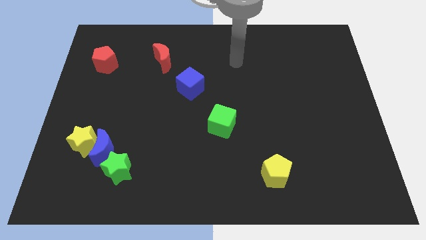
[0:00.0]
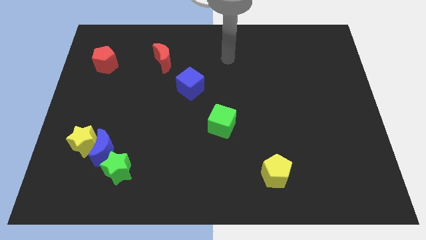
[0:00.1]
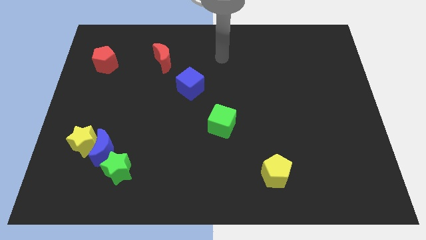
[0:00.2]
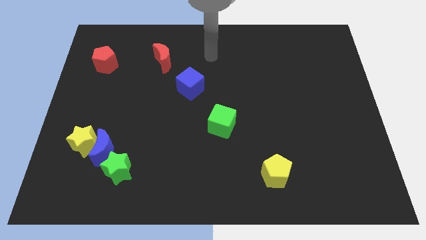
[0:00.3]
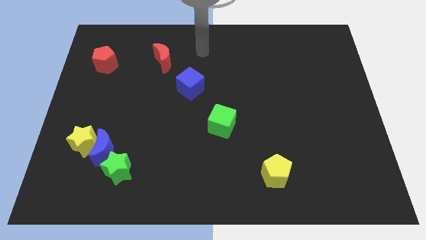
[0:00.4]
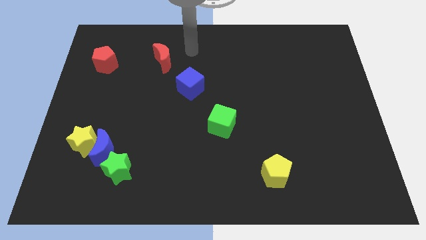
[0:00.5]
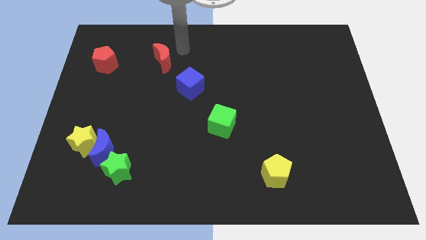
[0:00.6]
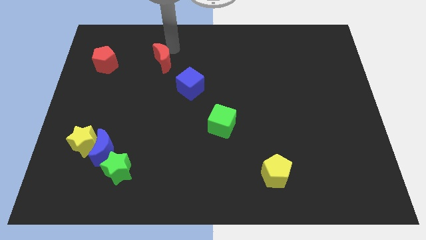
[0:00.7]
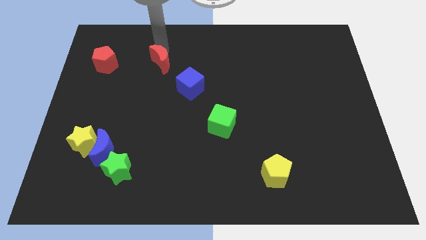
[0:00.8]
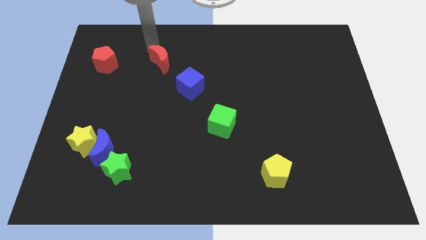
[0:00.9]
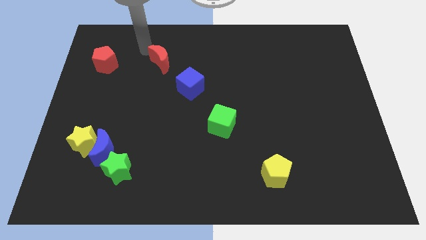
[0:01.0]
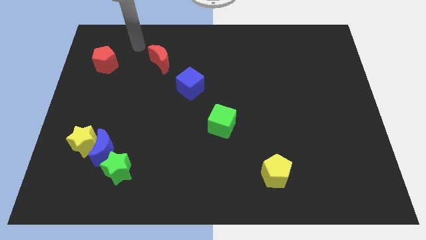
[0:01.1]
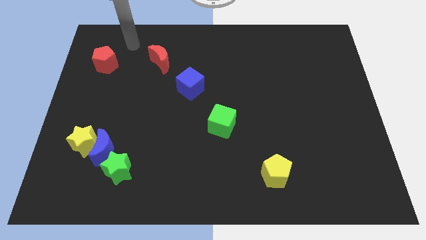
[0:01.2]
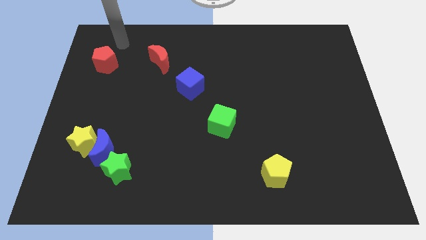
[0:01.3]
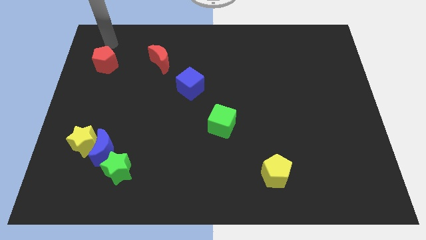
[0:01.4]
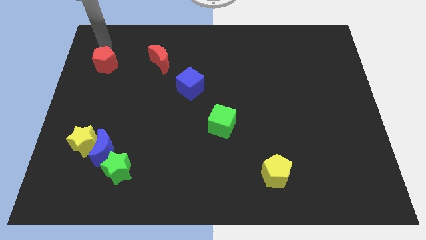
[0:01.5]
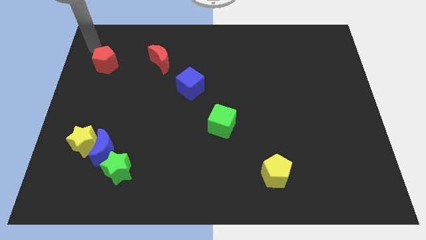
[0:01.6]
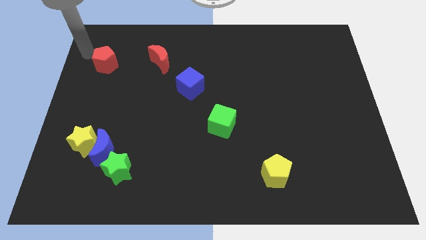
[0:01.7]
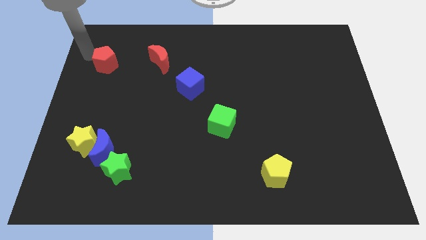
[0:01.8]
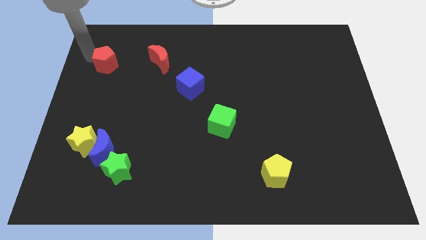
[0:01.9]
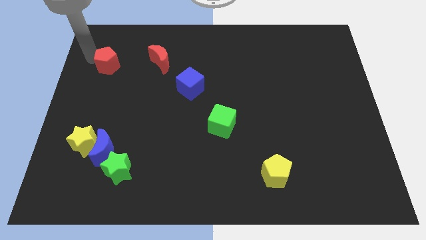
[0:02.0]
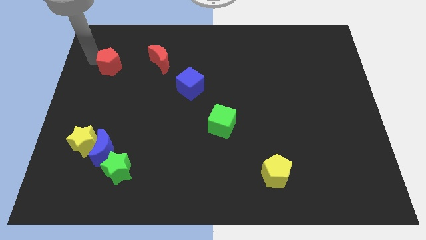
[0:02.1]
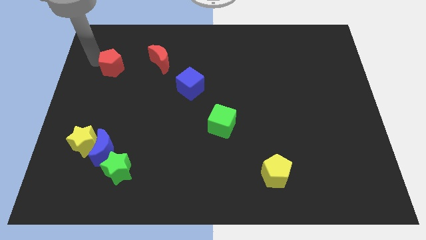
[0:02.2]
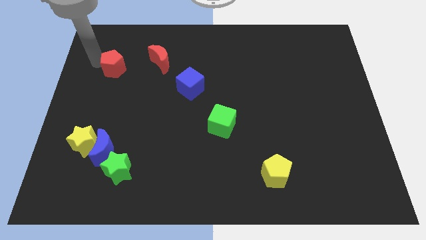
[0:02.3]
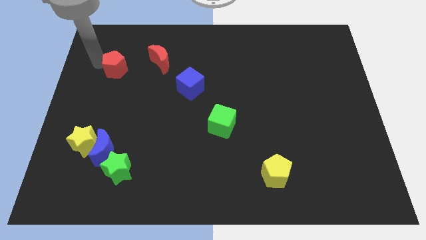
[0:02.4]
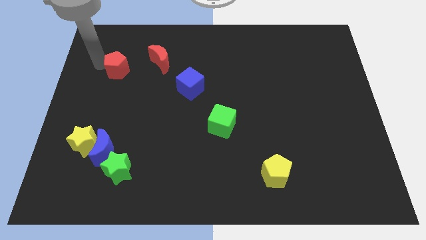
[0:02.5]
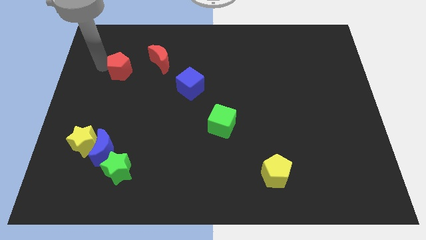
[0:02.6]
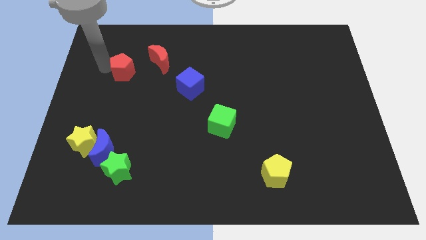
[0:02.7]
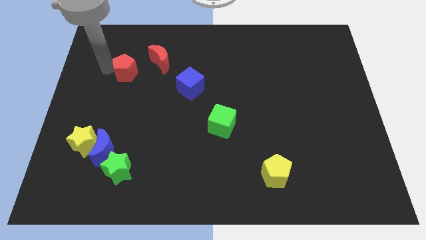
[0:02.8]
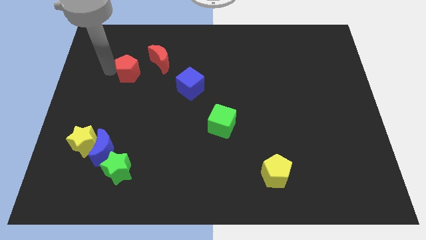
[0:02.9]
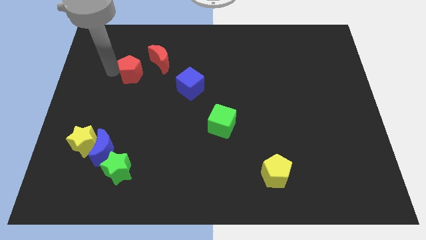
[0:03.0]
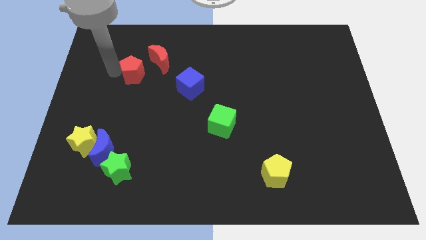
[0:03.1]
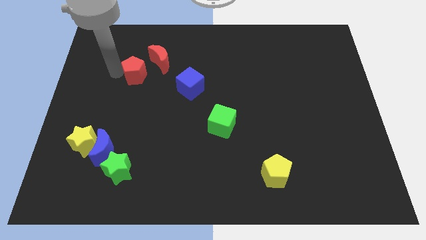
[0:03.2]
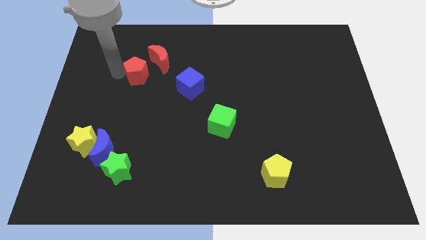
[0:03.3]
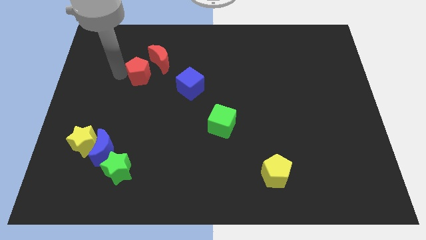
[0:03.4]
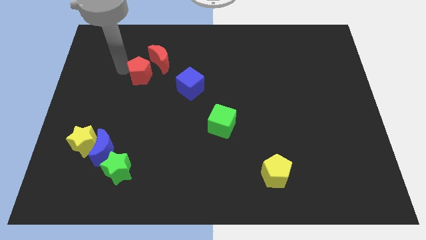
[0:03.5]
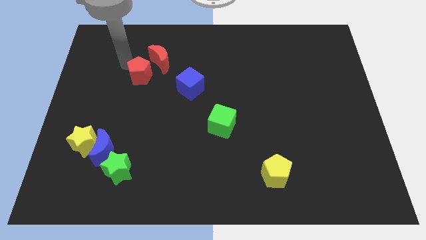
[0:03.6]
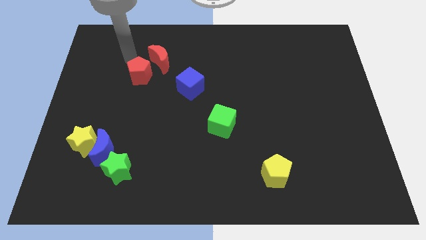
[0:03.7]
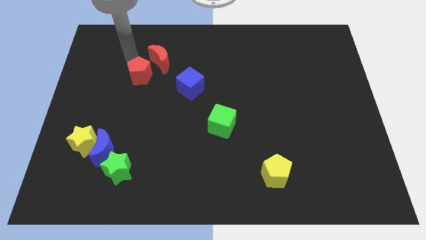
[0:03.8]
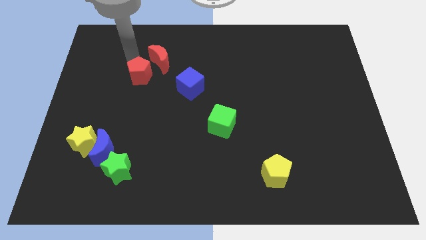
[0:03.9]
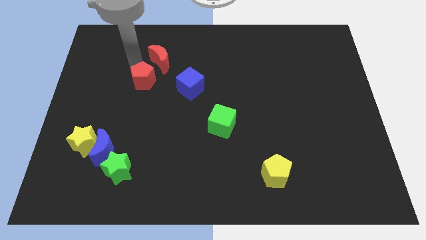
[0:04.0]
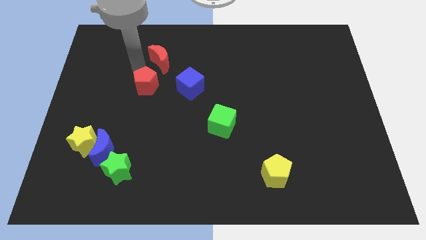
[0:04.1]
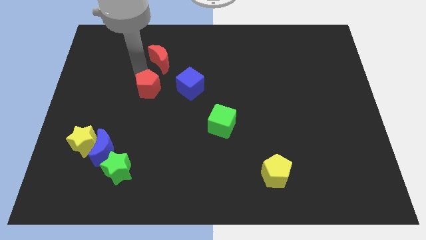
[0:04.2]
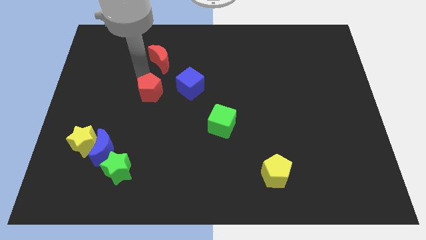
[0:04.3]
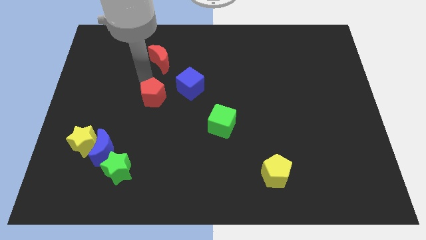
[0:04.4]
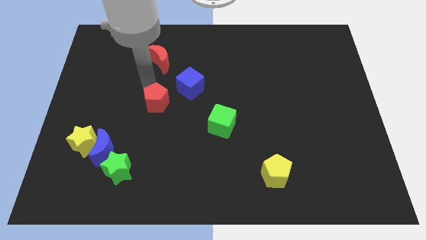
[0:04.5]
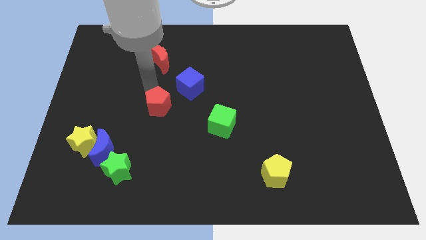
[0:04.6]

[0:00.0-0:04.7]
push the red pentagon diagonally downwards and to the right

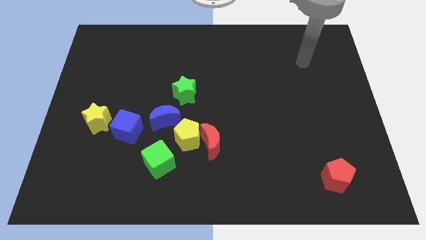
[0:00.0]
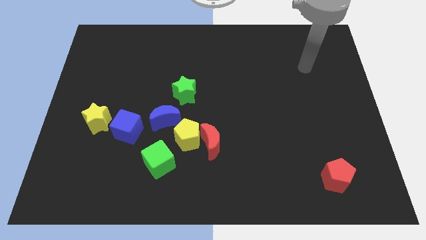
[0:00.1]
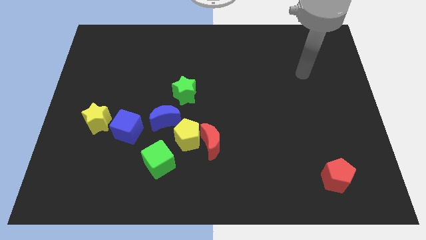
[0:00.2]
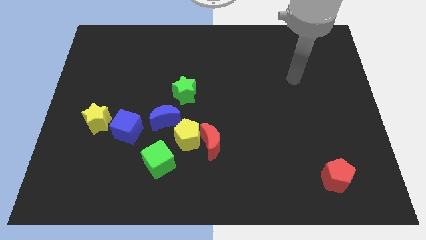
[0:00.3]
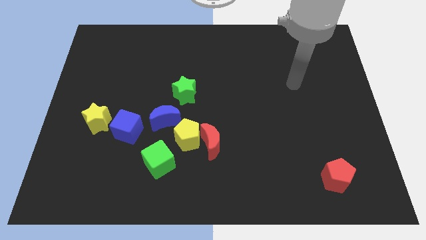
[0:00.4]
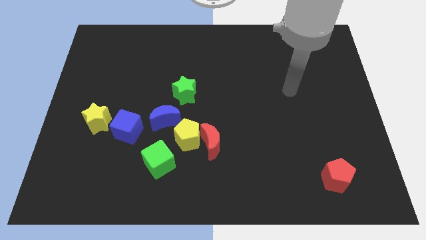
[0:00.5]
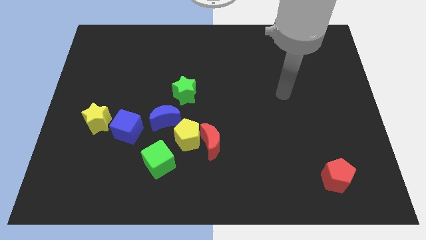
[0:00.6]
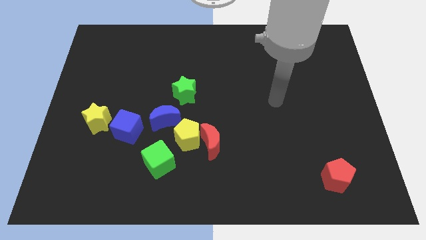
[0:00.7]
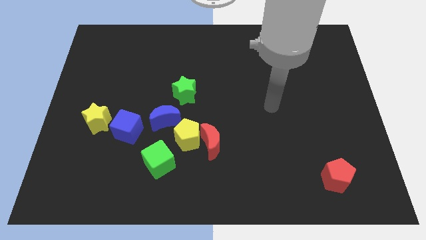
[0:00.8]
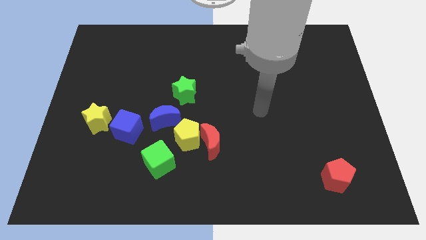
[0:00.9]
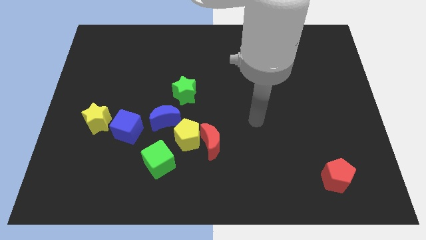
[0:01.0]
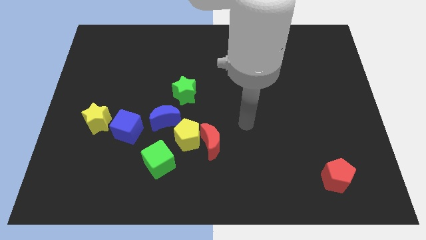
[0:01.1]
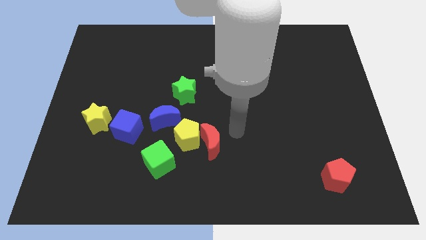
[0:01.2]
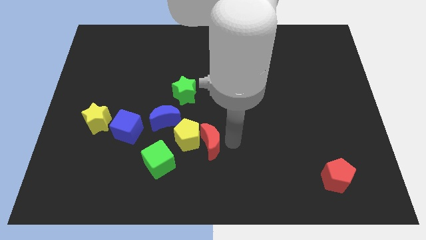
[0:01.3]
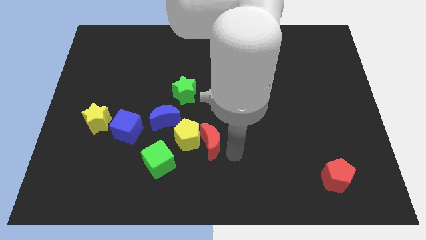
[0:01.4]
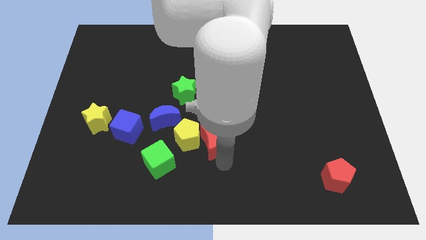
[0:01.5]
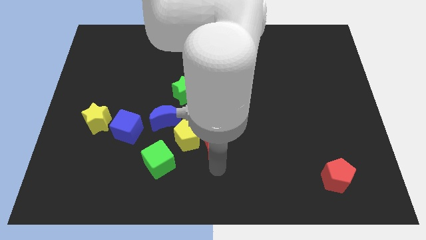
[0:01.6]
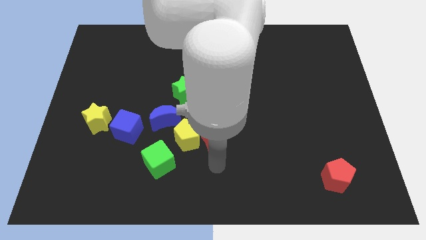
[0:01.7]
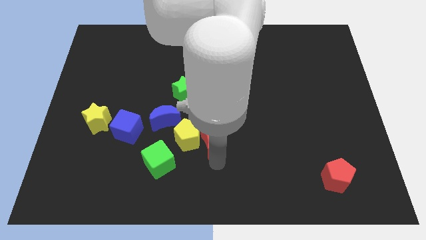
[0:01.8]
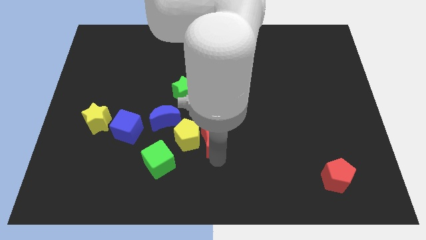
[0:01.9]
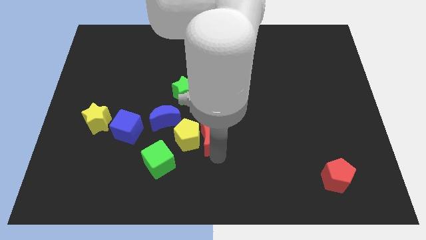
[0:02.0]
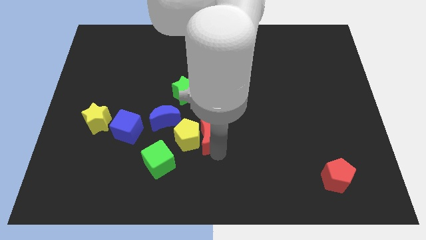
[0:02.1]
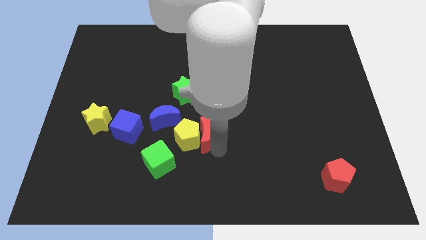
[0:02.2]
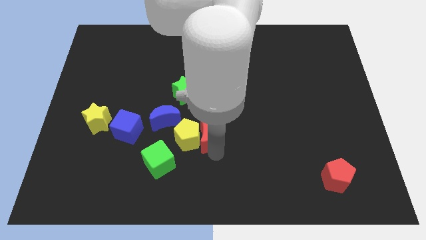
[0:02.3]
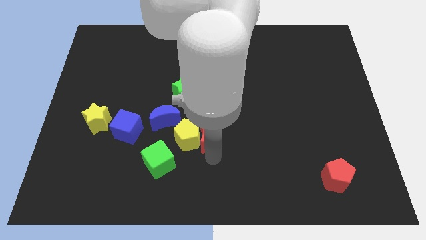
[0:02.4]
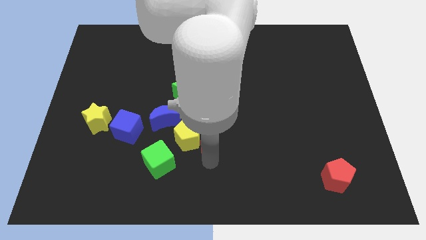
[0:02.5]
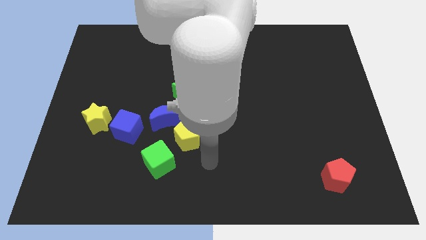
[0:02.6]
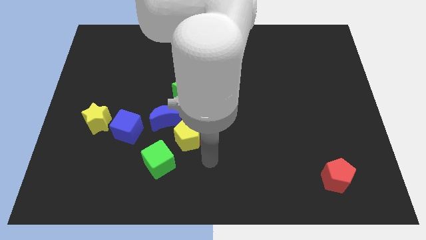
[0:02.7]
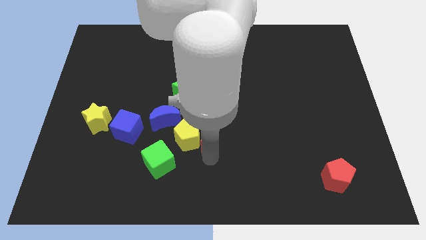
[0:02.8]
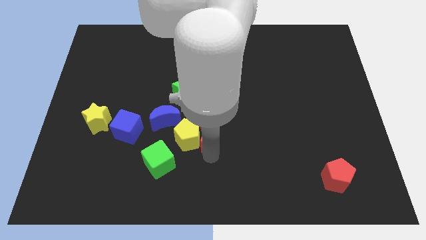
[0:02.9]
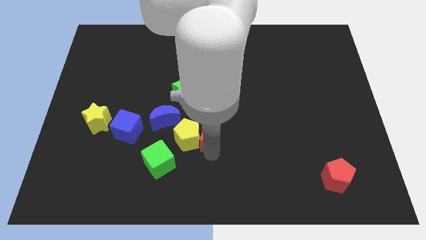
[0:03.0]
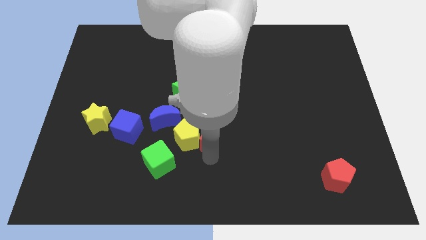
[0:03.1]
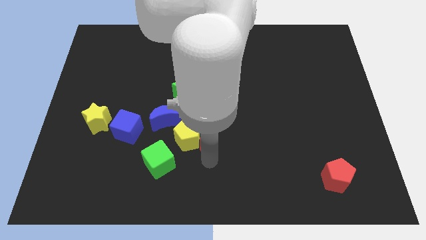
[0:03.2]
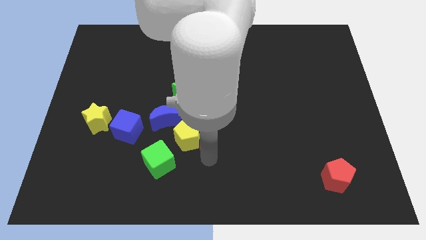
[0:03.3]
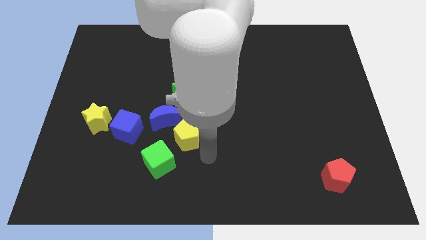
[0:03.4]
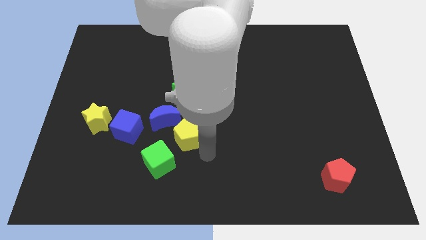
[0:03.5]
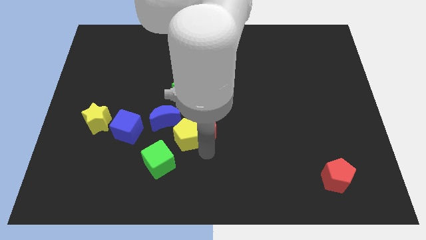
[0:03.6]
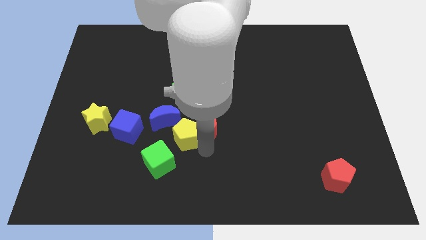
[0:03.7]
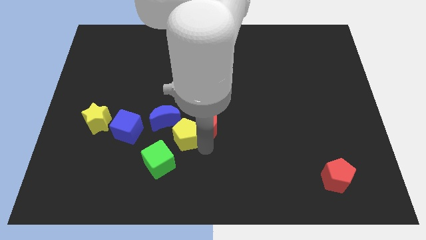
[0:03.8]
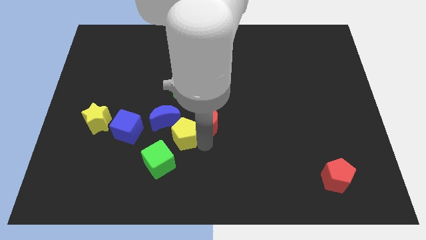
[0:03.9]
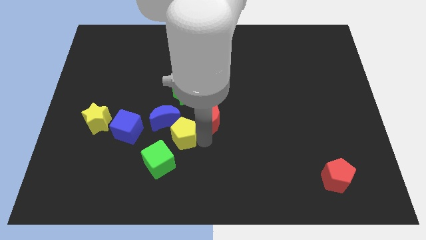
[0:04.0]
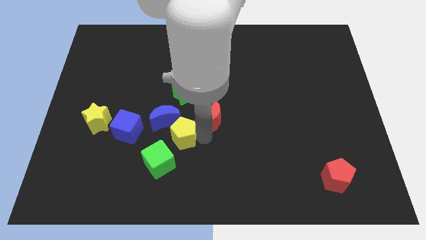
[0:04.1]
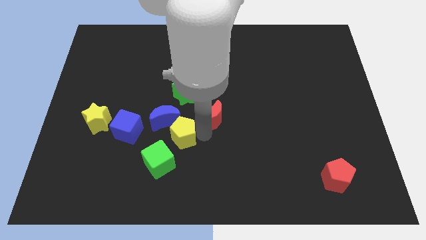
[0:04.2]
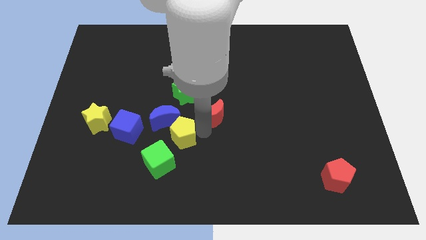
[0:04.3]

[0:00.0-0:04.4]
push the red moon up a little bit
